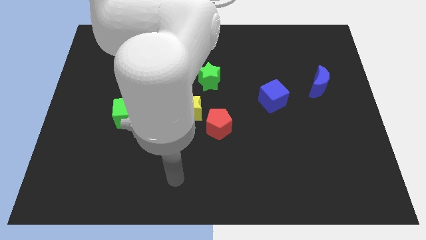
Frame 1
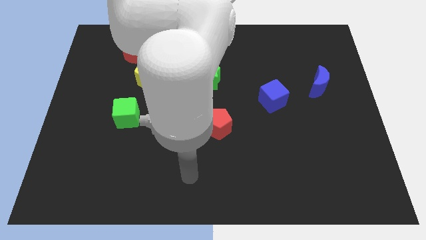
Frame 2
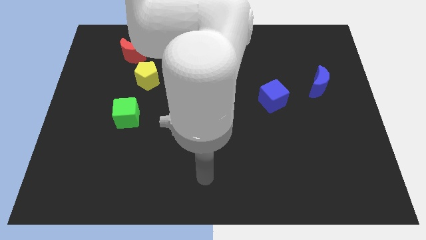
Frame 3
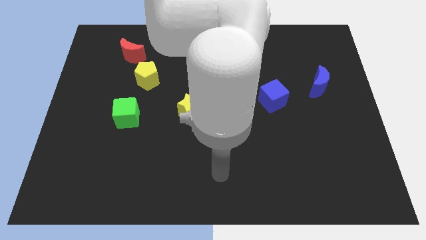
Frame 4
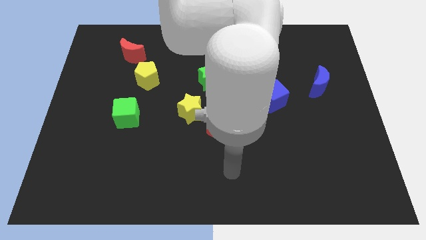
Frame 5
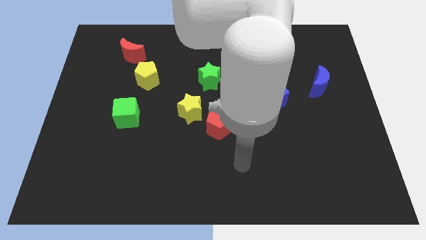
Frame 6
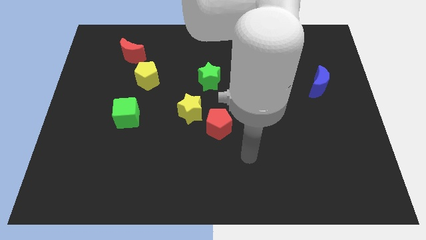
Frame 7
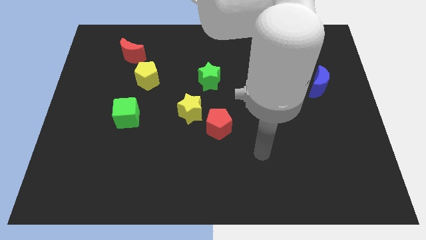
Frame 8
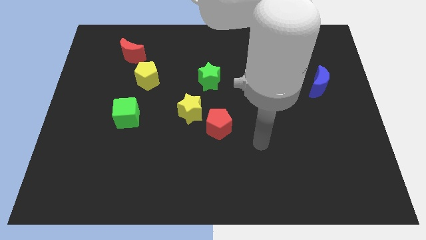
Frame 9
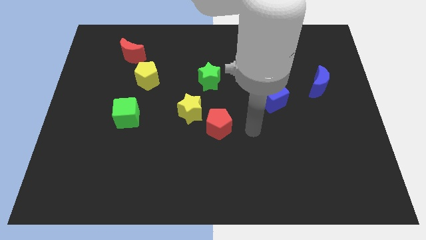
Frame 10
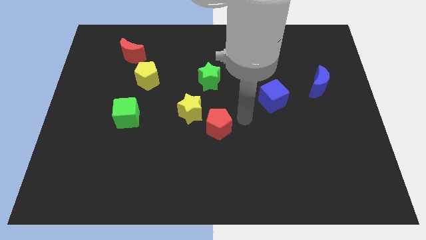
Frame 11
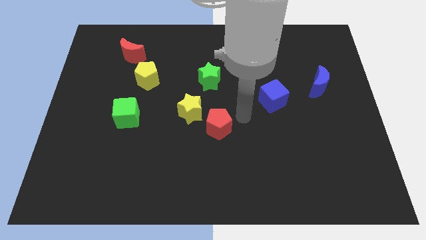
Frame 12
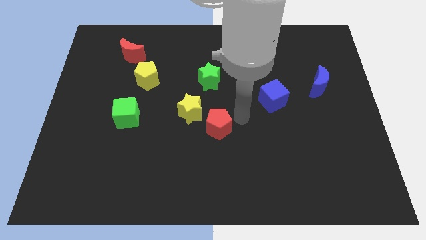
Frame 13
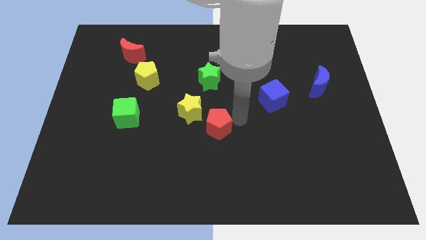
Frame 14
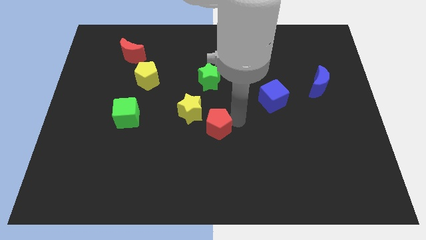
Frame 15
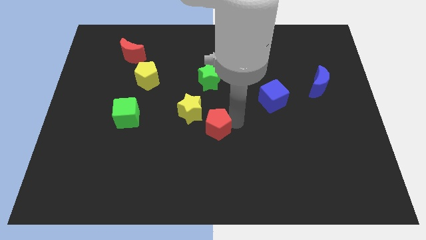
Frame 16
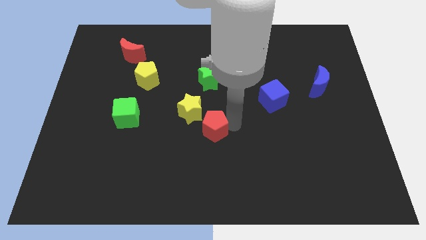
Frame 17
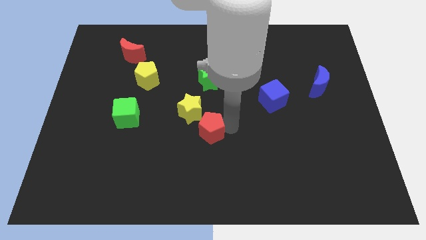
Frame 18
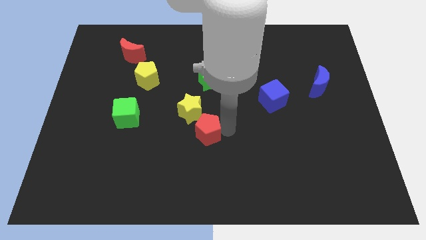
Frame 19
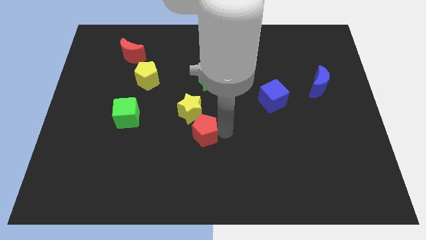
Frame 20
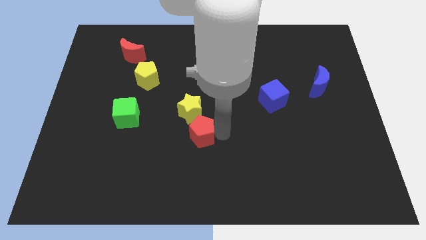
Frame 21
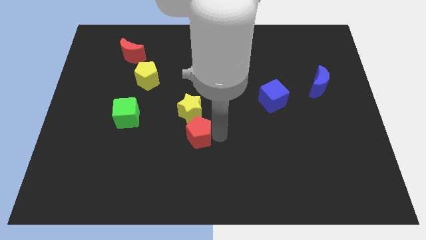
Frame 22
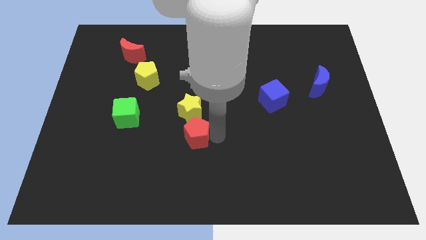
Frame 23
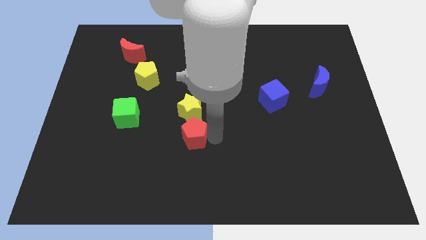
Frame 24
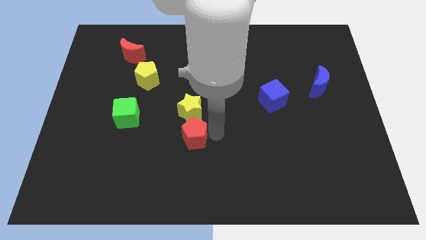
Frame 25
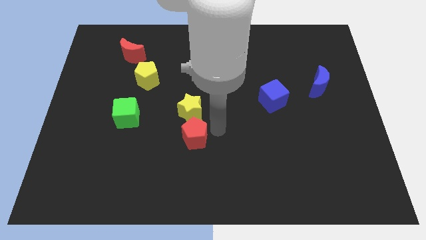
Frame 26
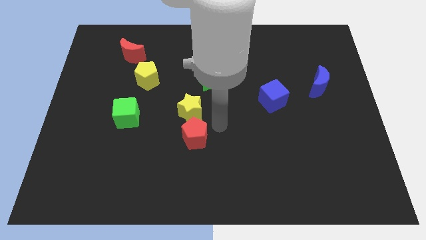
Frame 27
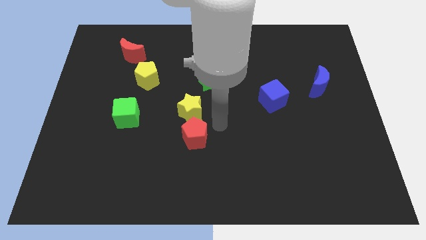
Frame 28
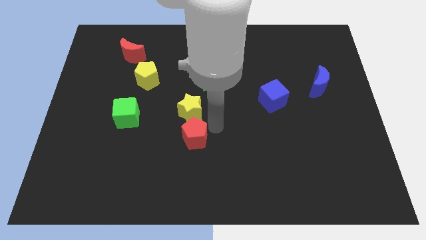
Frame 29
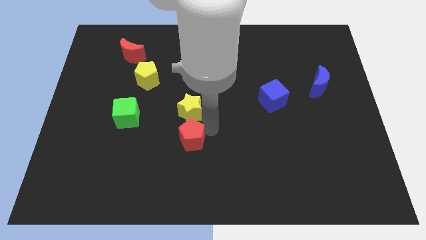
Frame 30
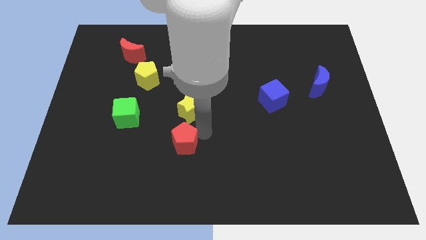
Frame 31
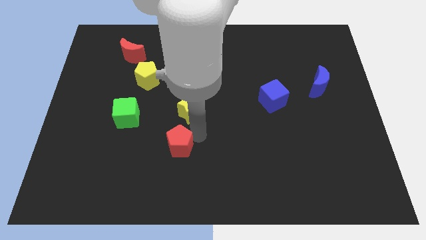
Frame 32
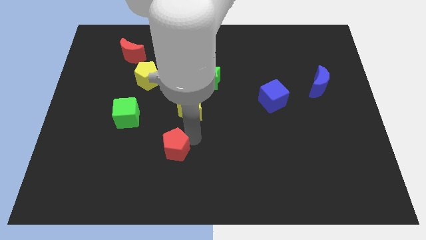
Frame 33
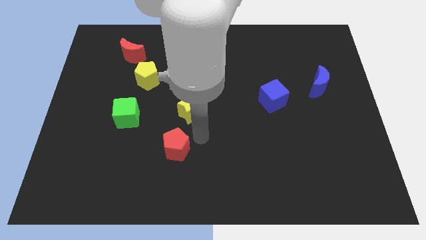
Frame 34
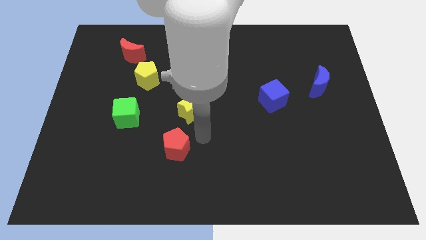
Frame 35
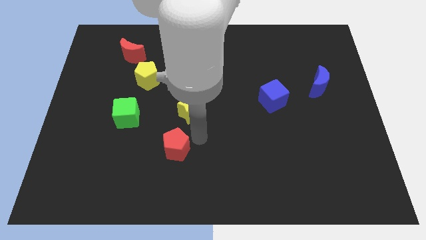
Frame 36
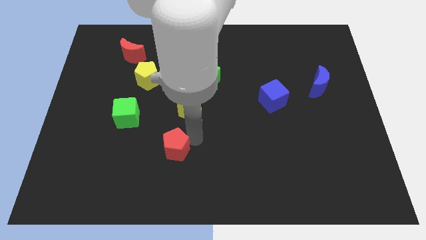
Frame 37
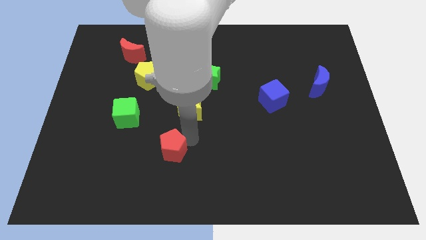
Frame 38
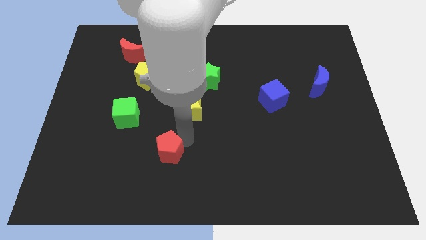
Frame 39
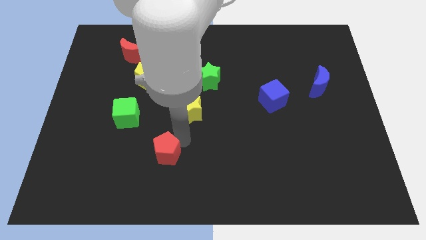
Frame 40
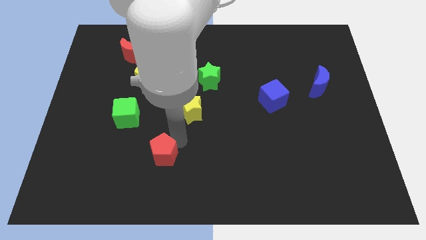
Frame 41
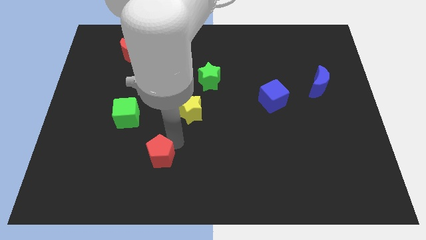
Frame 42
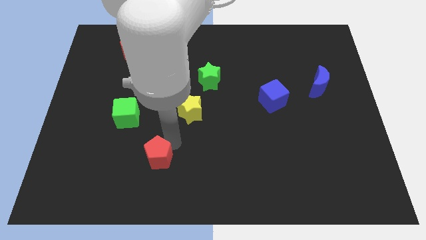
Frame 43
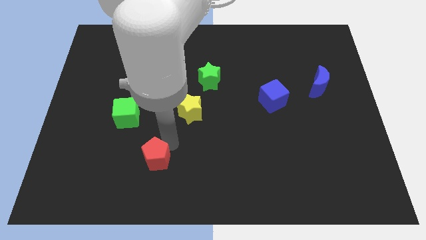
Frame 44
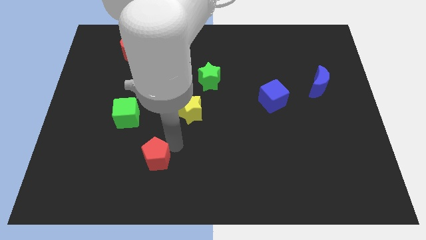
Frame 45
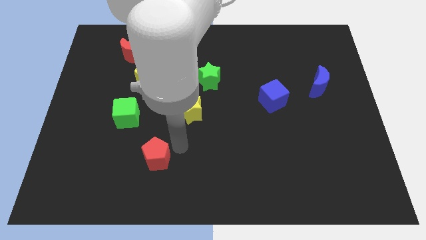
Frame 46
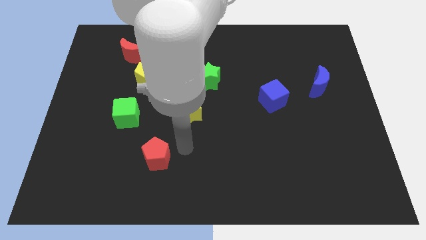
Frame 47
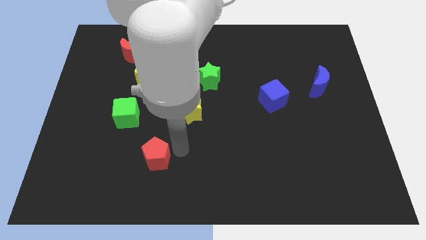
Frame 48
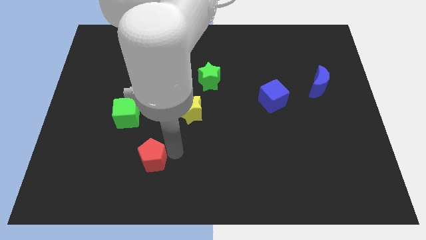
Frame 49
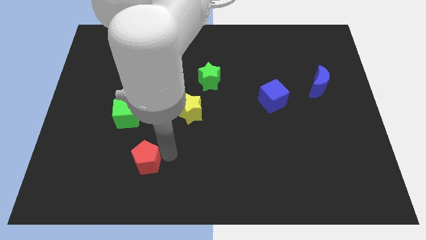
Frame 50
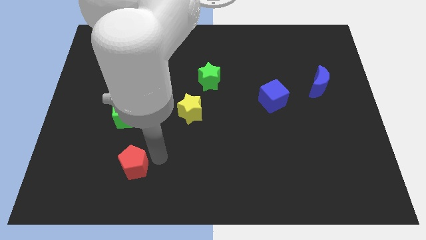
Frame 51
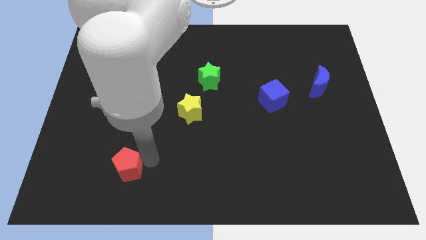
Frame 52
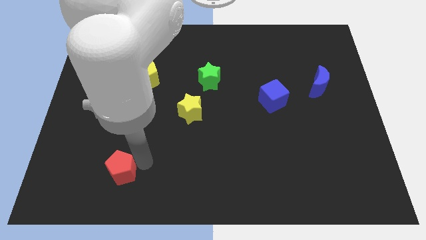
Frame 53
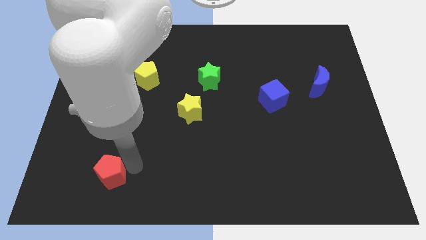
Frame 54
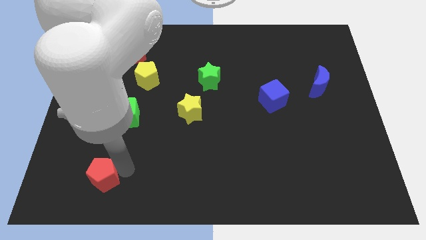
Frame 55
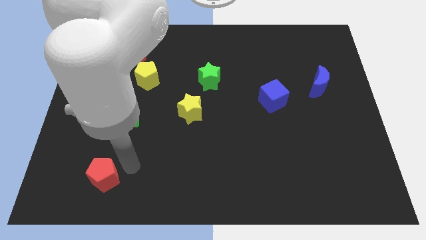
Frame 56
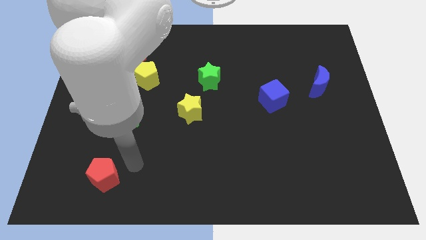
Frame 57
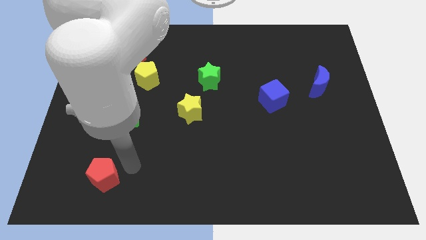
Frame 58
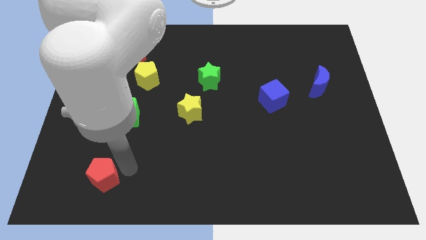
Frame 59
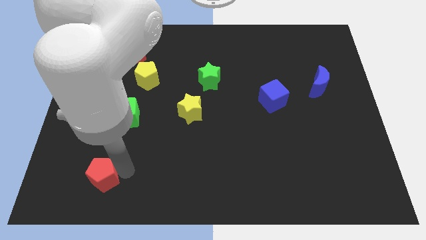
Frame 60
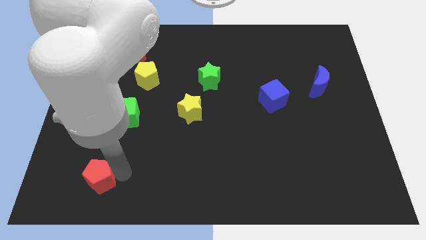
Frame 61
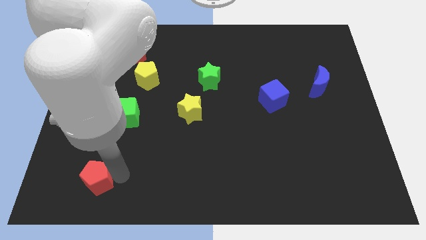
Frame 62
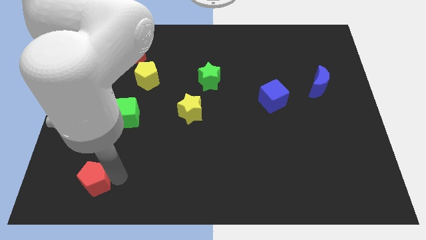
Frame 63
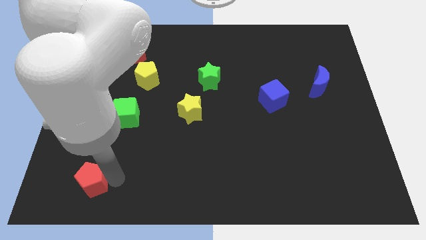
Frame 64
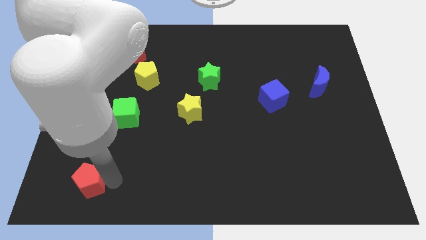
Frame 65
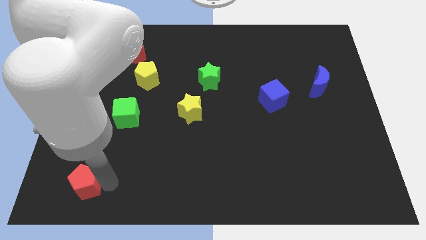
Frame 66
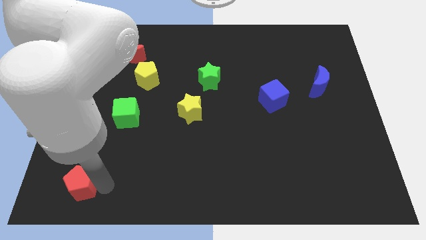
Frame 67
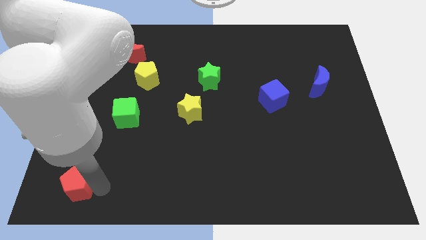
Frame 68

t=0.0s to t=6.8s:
slide the red pentagon to the lower left corner
